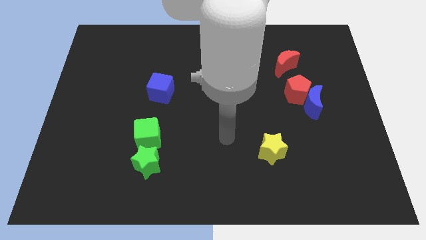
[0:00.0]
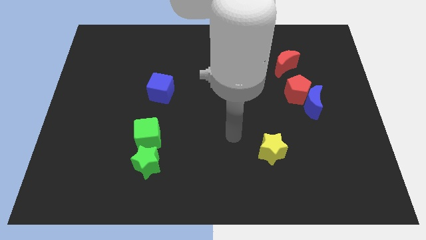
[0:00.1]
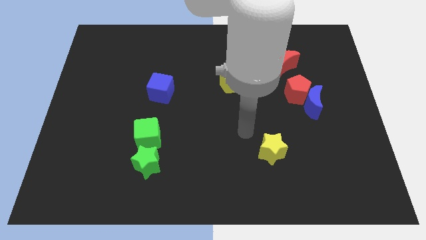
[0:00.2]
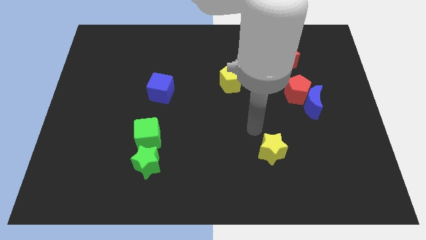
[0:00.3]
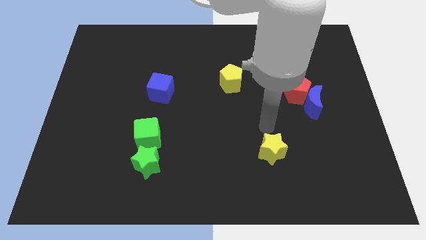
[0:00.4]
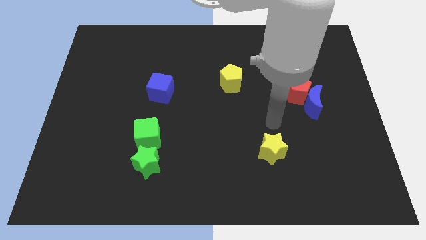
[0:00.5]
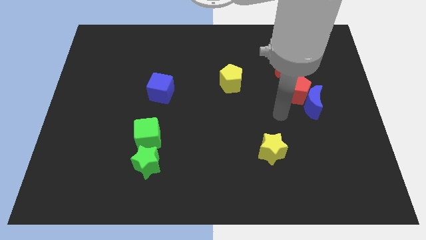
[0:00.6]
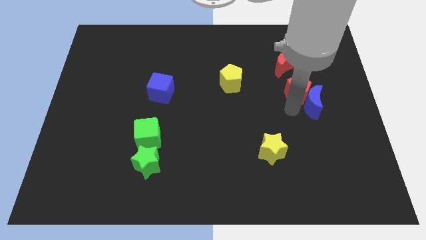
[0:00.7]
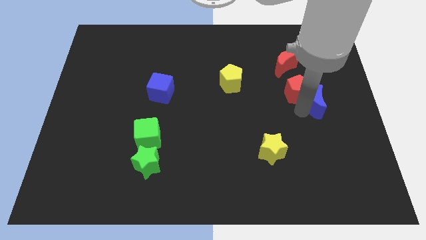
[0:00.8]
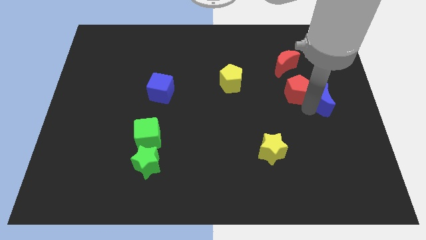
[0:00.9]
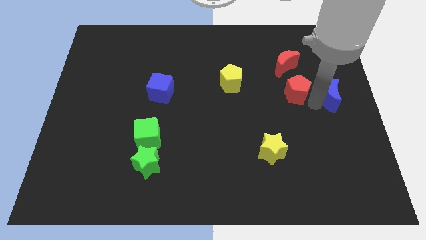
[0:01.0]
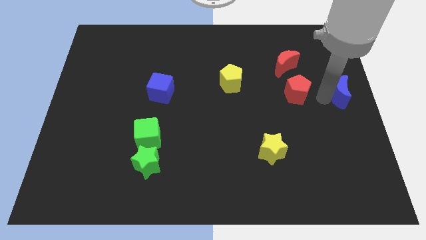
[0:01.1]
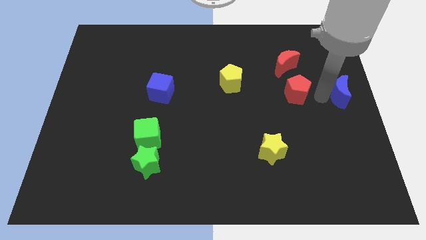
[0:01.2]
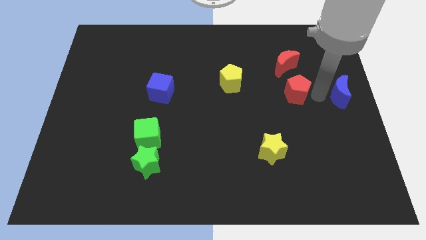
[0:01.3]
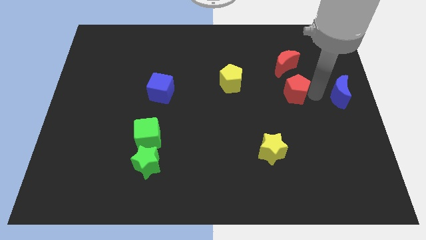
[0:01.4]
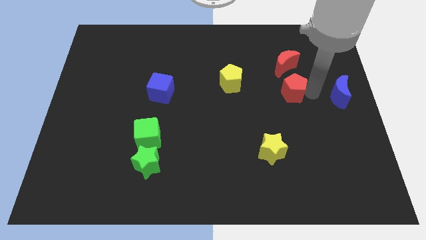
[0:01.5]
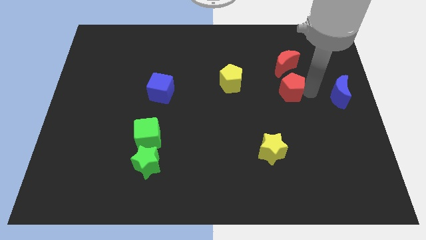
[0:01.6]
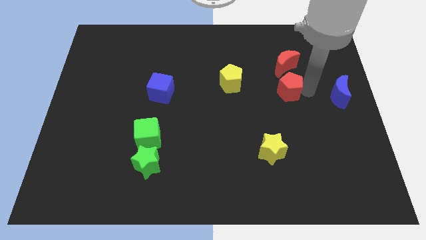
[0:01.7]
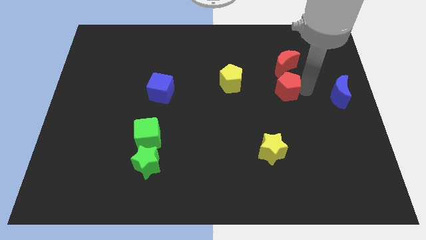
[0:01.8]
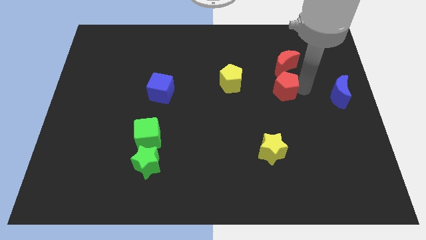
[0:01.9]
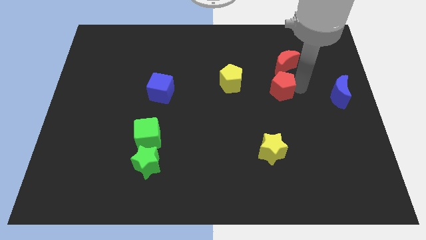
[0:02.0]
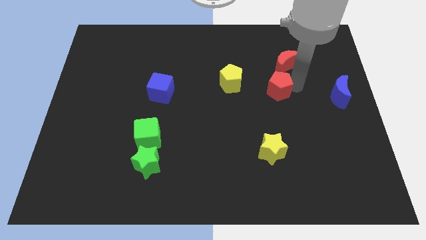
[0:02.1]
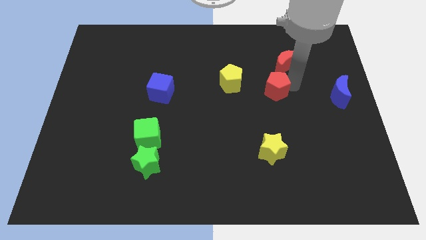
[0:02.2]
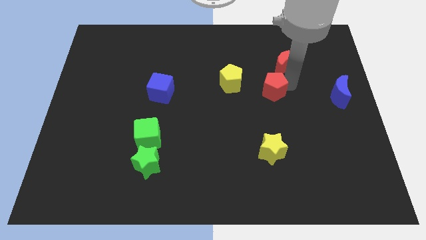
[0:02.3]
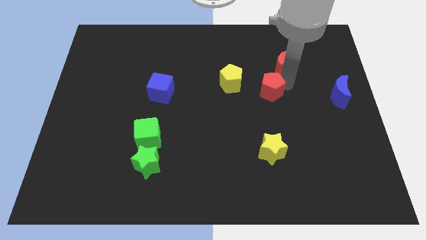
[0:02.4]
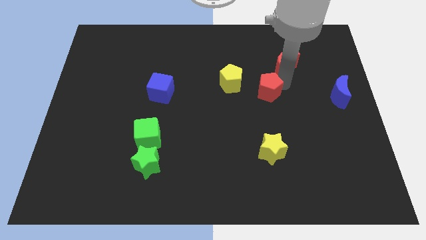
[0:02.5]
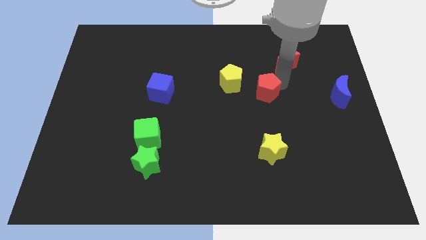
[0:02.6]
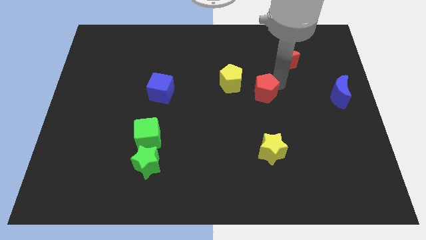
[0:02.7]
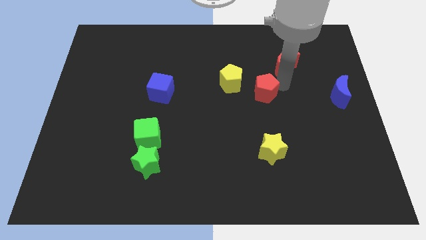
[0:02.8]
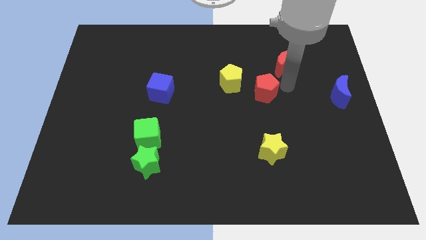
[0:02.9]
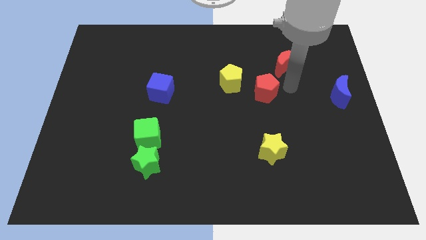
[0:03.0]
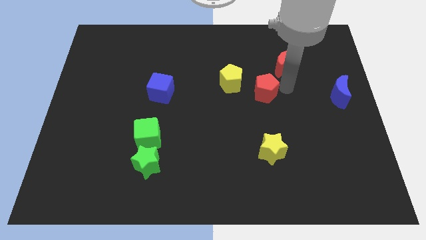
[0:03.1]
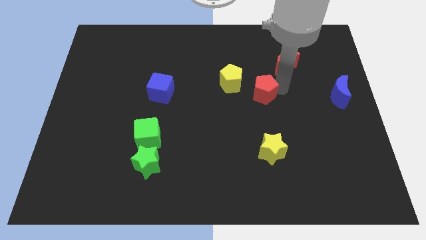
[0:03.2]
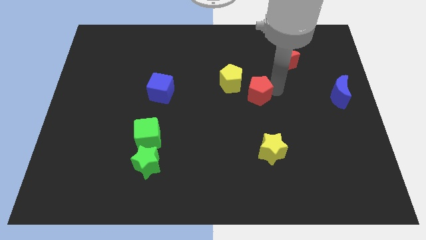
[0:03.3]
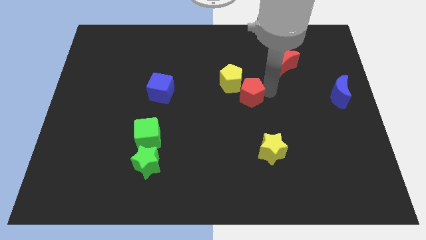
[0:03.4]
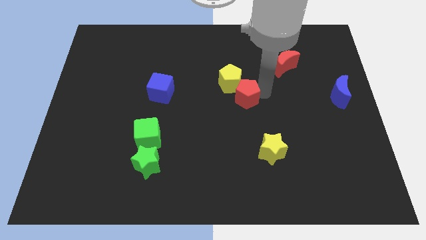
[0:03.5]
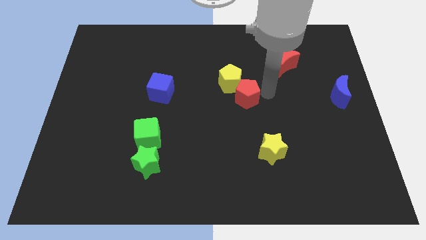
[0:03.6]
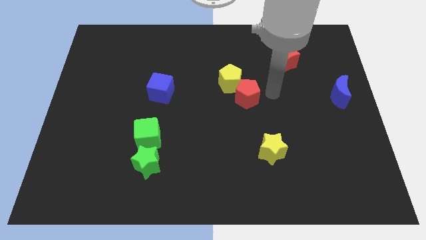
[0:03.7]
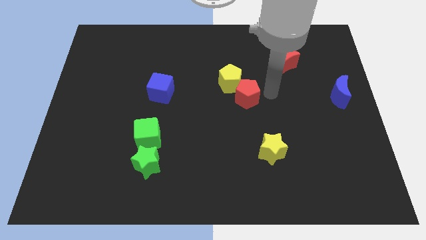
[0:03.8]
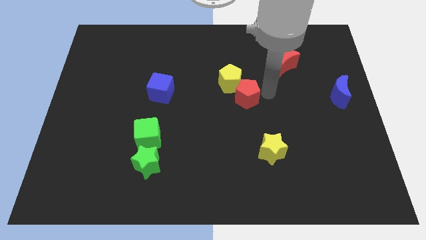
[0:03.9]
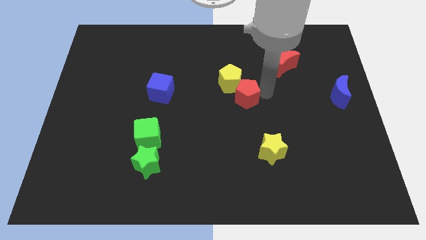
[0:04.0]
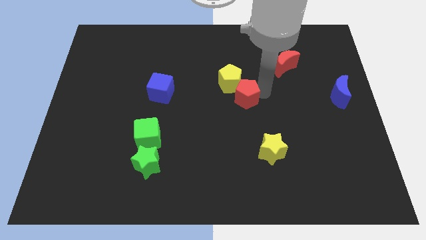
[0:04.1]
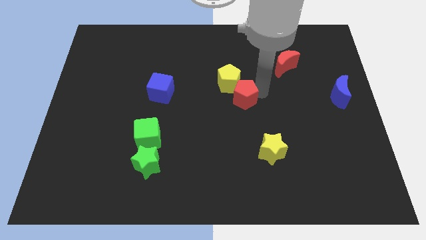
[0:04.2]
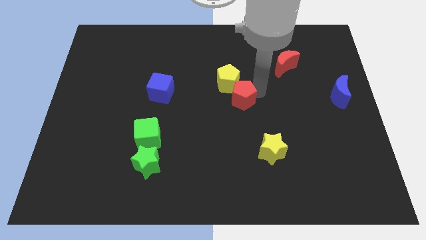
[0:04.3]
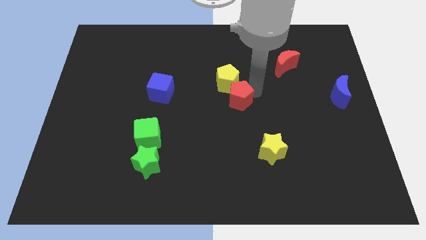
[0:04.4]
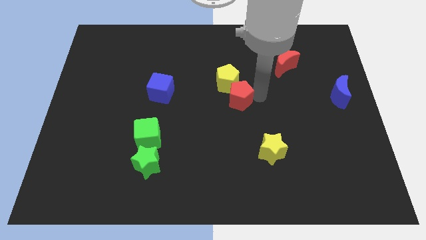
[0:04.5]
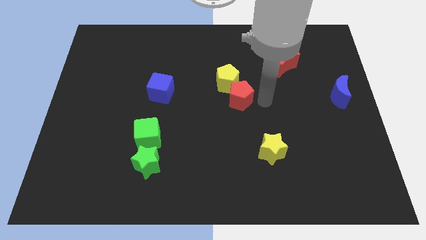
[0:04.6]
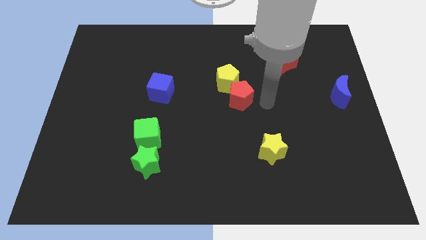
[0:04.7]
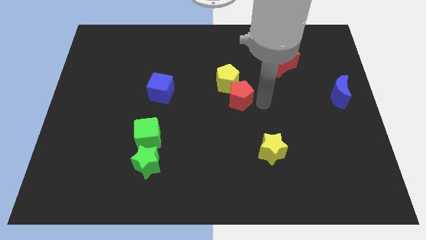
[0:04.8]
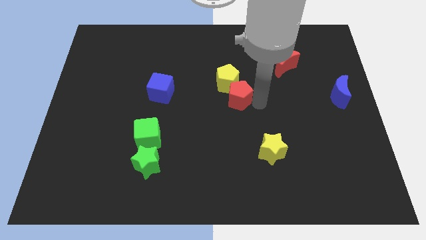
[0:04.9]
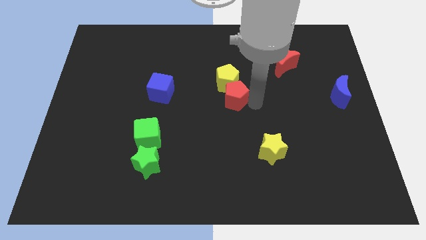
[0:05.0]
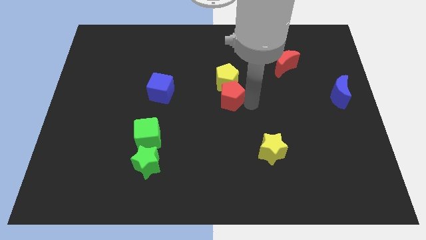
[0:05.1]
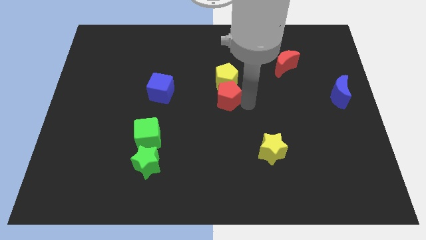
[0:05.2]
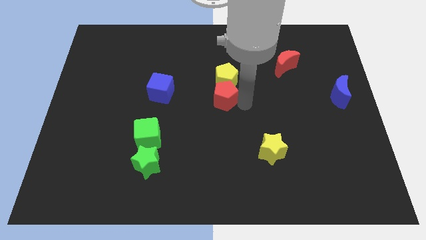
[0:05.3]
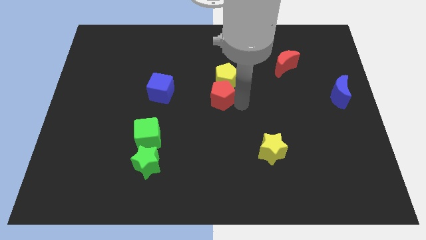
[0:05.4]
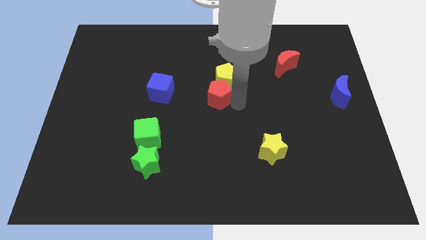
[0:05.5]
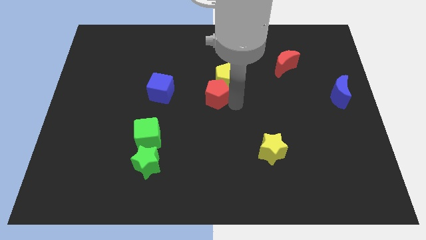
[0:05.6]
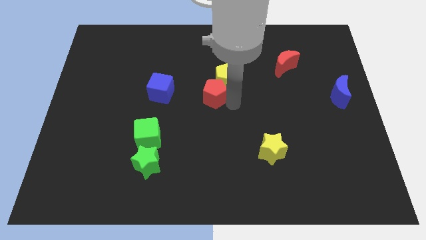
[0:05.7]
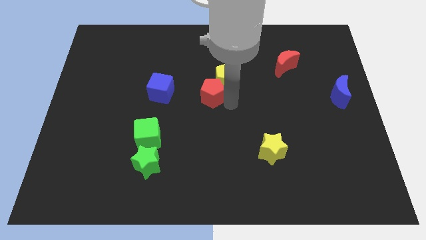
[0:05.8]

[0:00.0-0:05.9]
move the red pentagon to the left side of the yellow pentagon

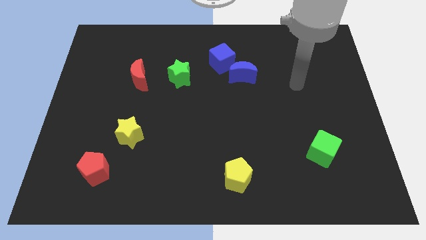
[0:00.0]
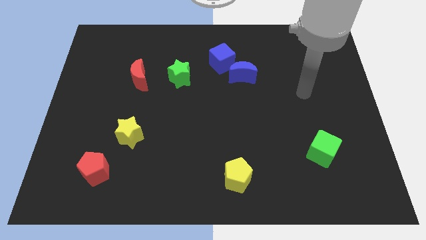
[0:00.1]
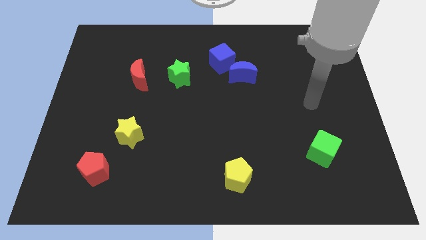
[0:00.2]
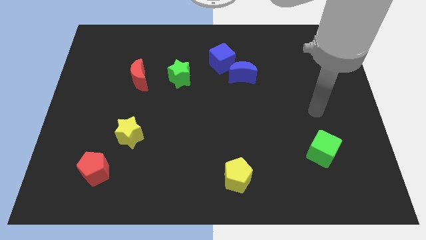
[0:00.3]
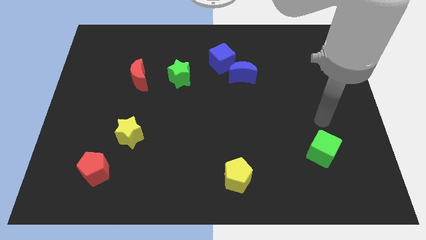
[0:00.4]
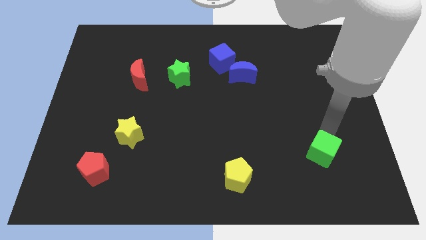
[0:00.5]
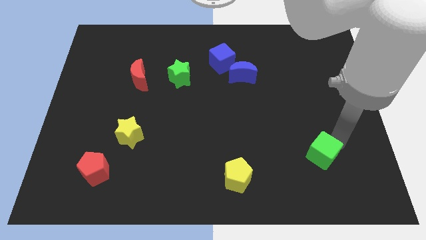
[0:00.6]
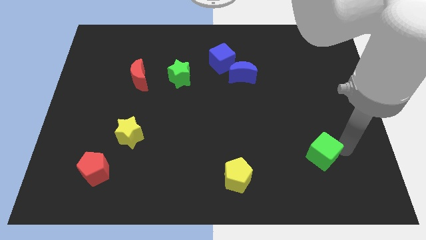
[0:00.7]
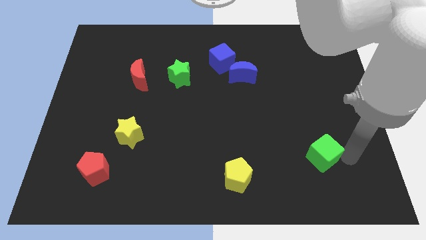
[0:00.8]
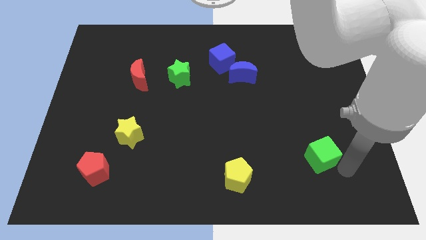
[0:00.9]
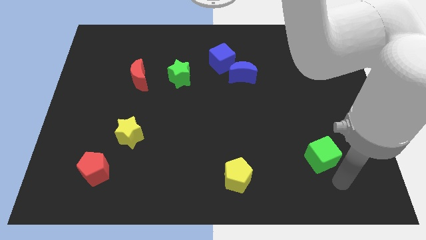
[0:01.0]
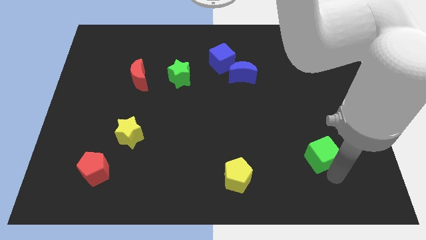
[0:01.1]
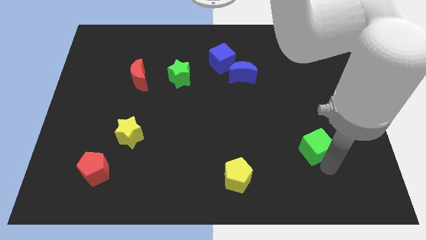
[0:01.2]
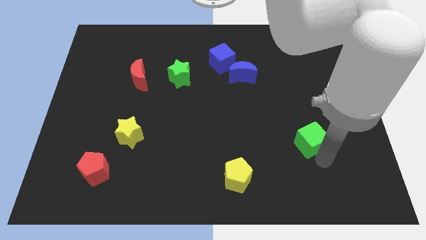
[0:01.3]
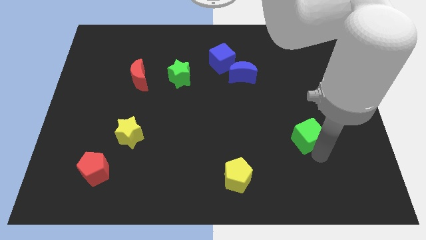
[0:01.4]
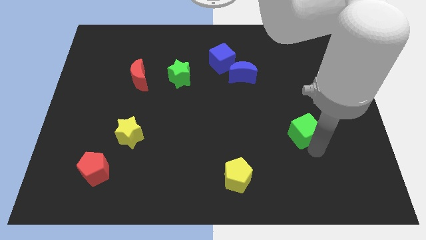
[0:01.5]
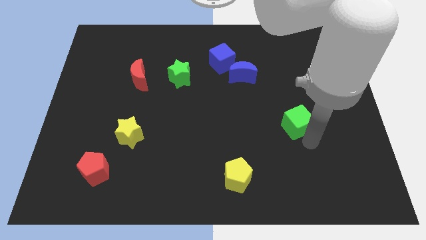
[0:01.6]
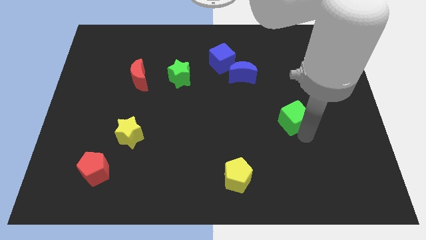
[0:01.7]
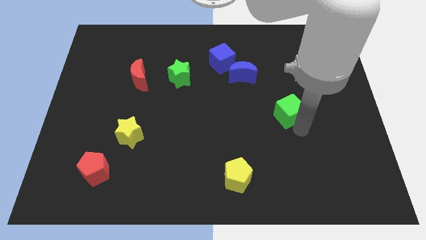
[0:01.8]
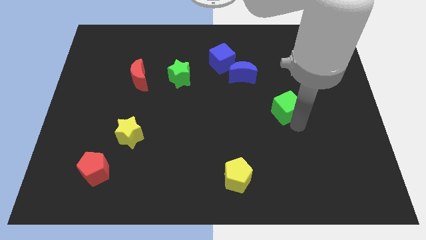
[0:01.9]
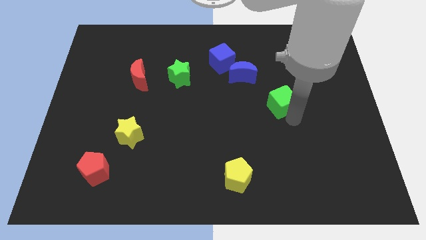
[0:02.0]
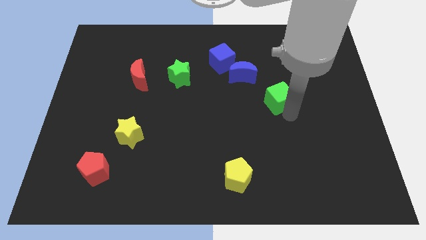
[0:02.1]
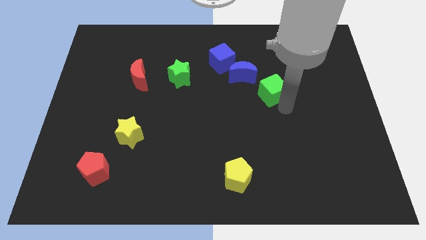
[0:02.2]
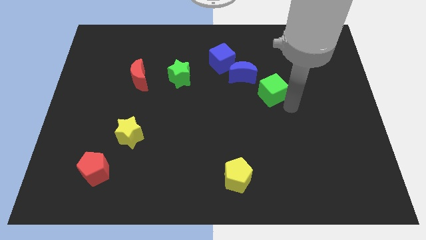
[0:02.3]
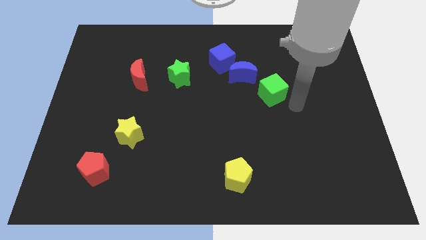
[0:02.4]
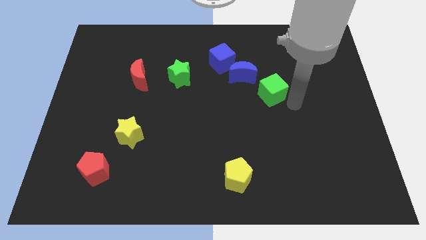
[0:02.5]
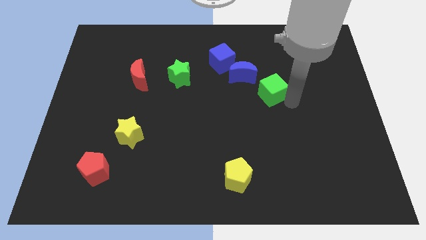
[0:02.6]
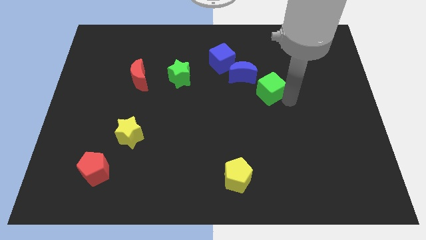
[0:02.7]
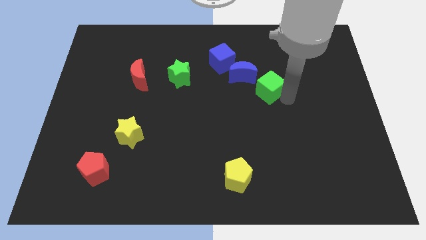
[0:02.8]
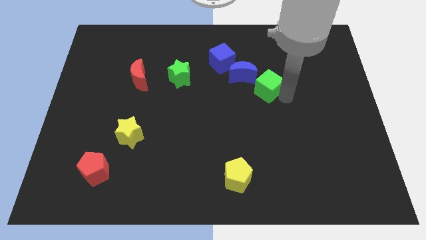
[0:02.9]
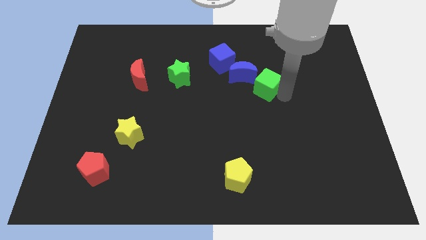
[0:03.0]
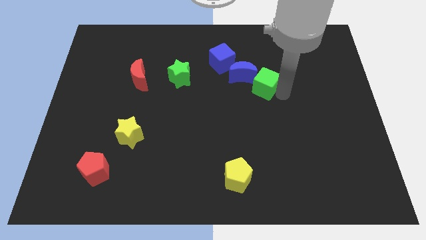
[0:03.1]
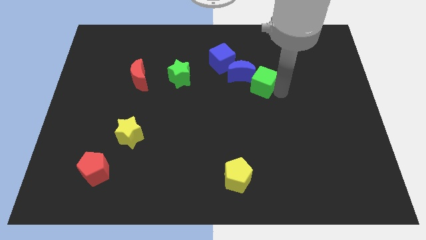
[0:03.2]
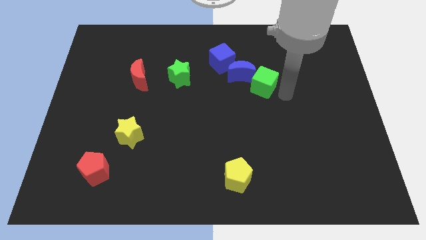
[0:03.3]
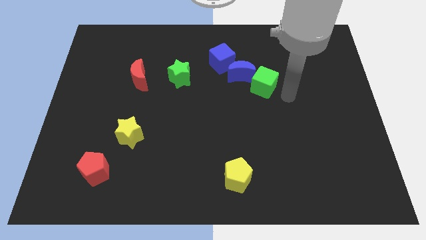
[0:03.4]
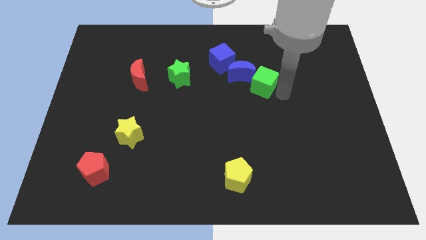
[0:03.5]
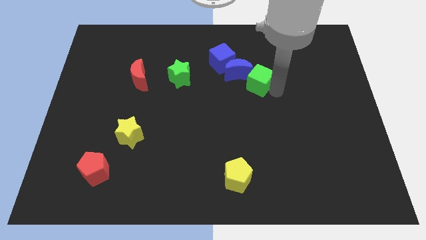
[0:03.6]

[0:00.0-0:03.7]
push the green cube to the bottom right of the blue cube
